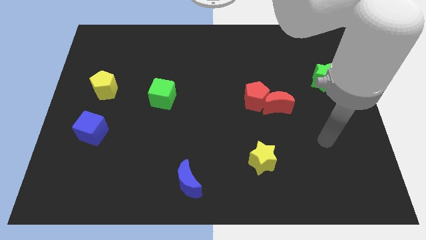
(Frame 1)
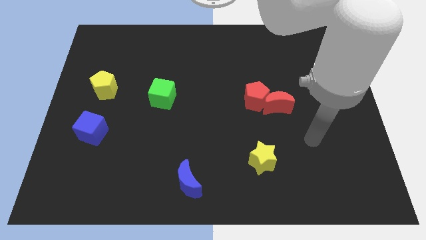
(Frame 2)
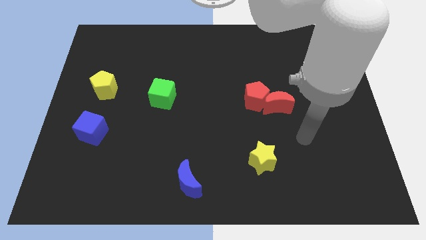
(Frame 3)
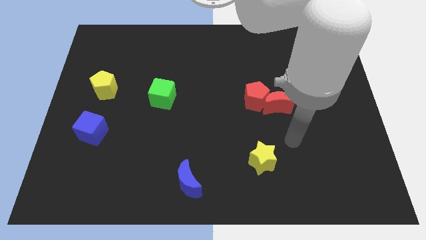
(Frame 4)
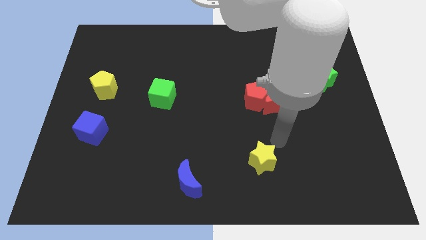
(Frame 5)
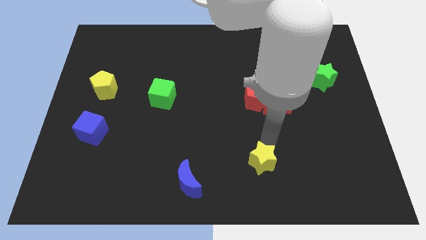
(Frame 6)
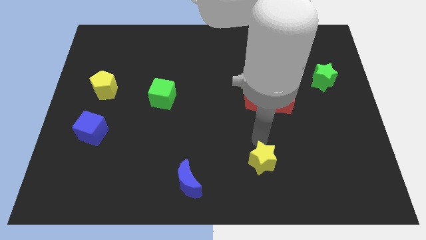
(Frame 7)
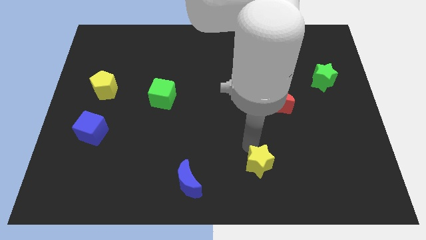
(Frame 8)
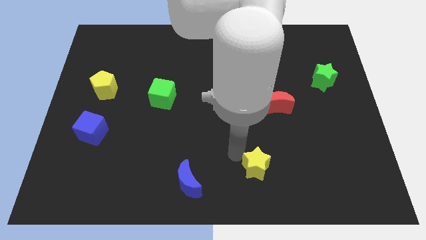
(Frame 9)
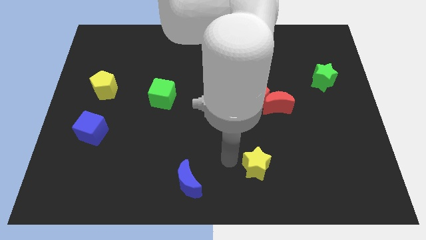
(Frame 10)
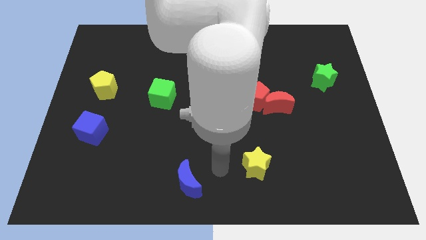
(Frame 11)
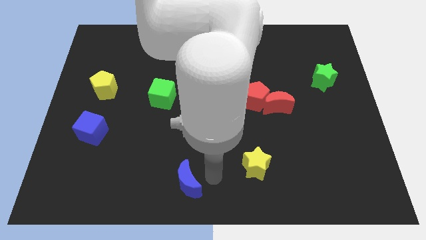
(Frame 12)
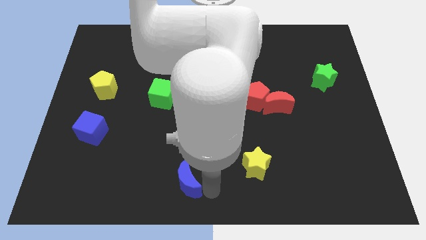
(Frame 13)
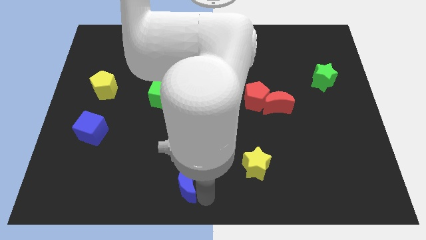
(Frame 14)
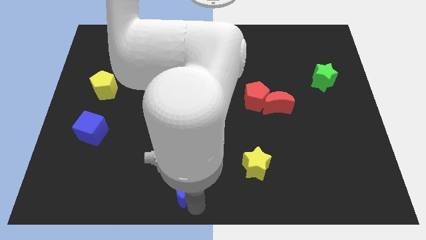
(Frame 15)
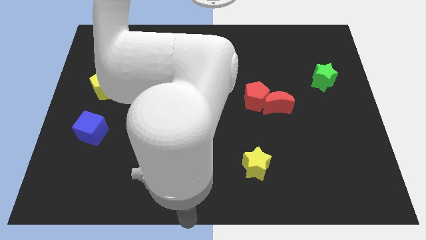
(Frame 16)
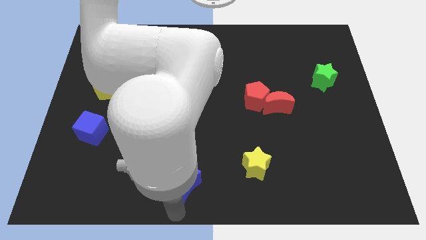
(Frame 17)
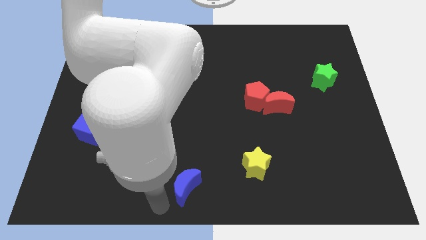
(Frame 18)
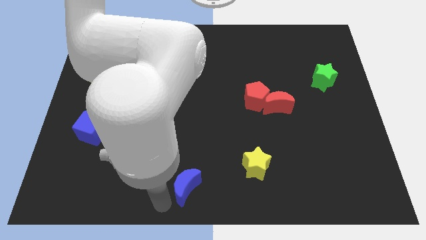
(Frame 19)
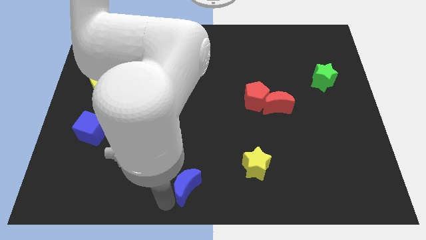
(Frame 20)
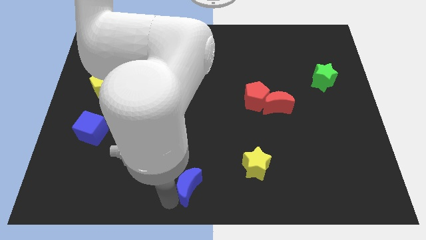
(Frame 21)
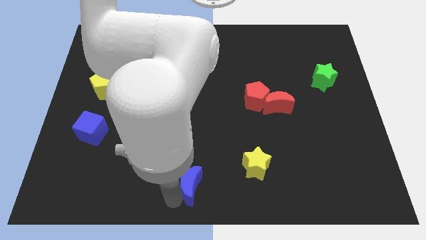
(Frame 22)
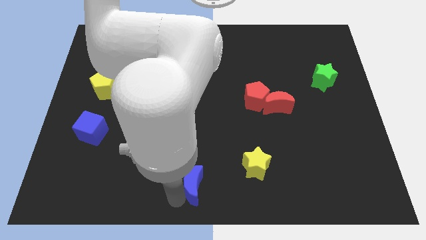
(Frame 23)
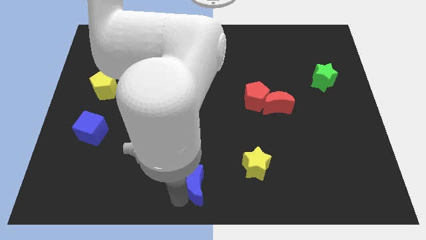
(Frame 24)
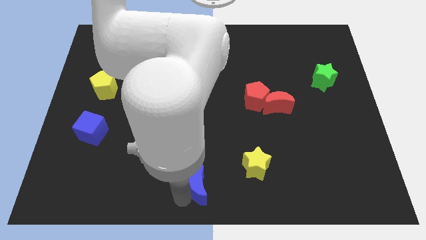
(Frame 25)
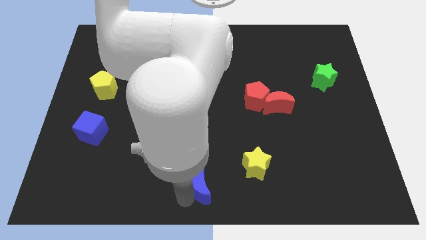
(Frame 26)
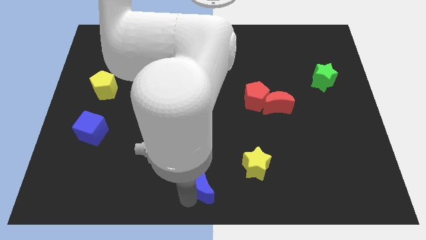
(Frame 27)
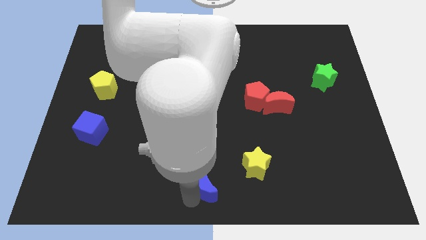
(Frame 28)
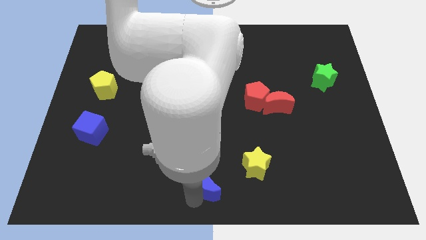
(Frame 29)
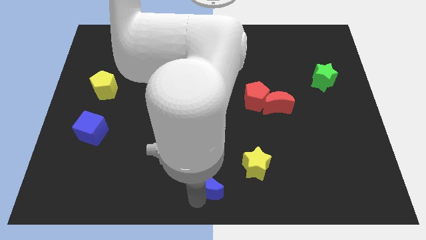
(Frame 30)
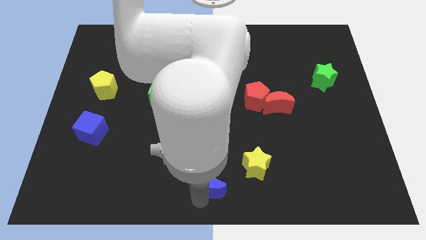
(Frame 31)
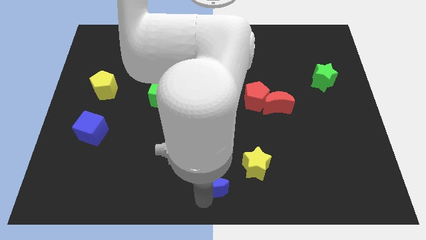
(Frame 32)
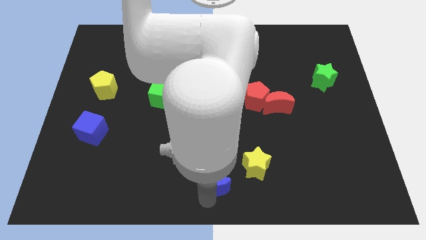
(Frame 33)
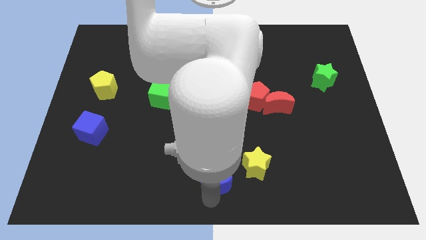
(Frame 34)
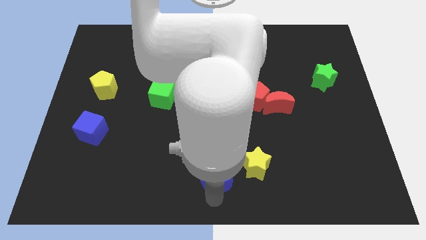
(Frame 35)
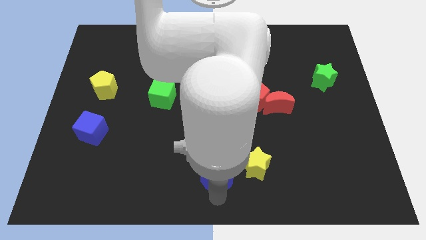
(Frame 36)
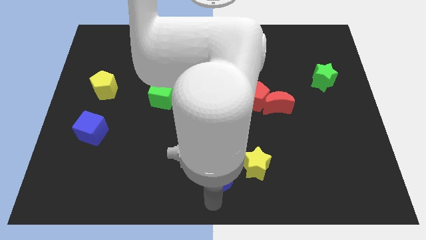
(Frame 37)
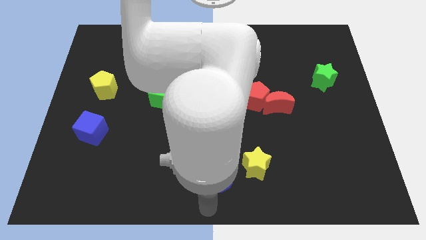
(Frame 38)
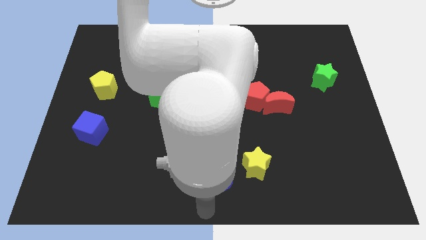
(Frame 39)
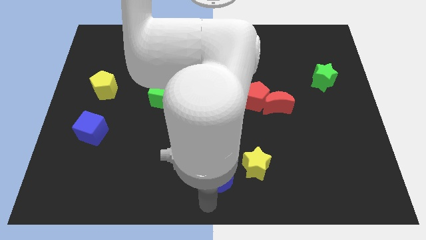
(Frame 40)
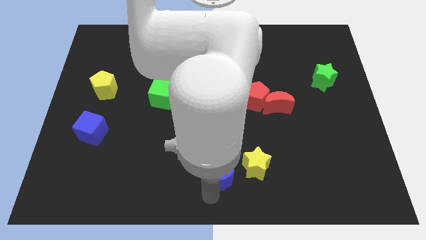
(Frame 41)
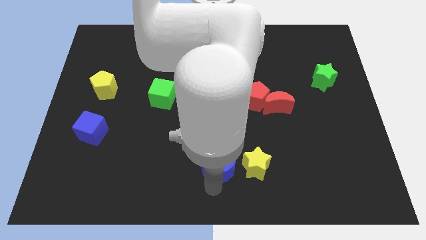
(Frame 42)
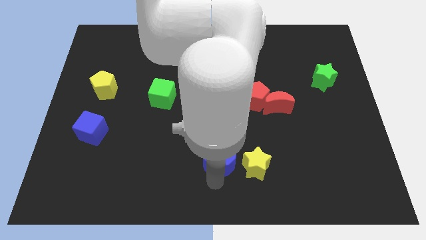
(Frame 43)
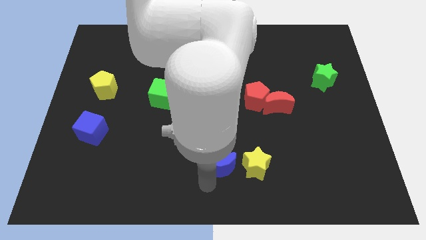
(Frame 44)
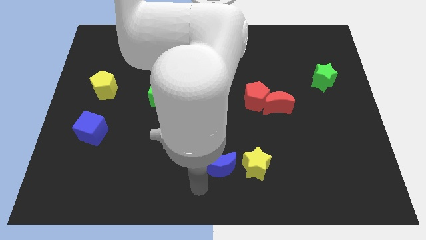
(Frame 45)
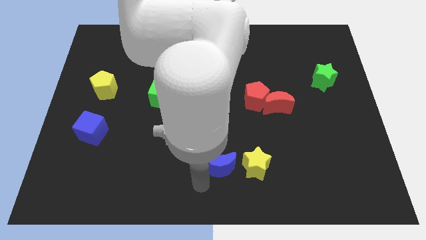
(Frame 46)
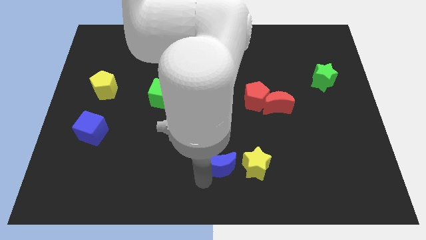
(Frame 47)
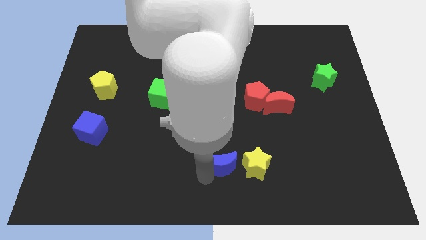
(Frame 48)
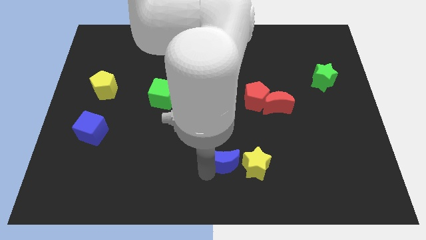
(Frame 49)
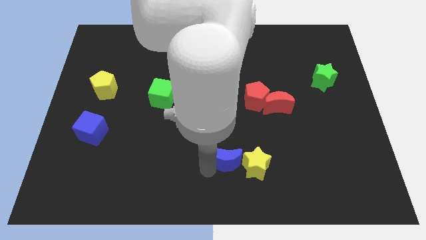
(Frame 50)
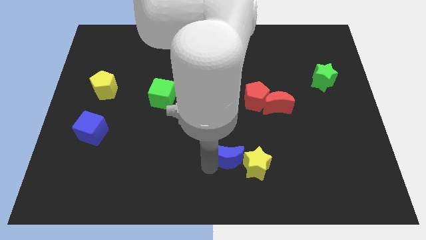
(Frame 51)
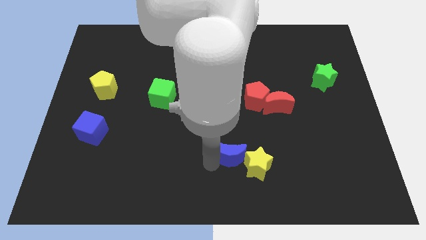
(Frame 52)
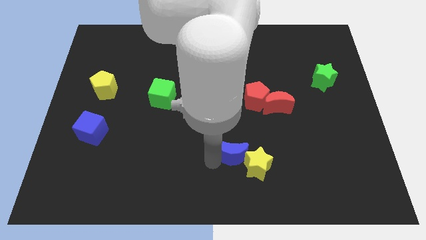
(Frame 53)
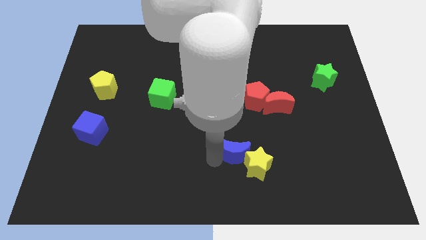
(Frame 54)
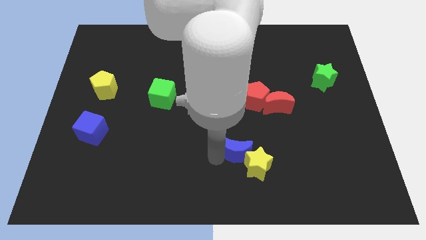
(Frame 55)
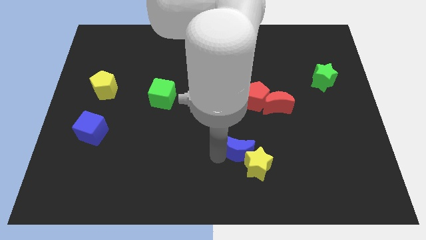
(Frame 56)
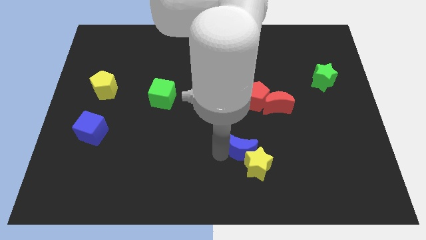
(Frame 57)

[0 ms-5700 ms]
push the blue moon to the bottom side of the red pentagon

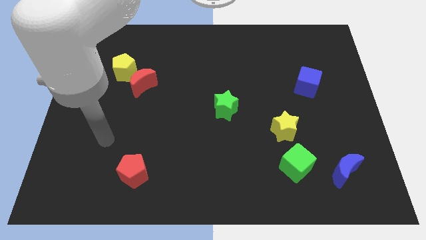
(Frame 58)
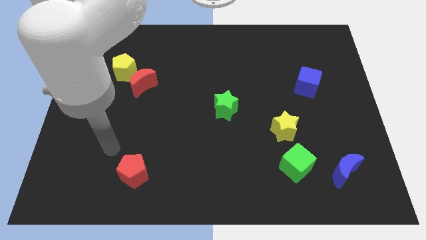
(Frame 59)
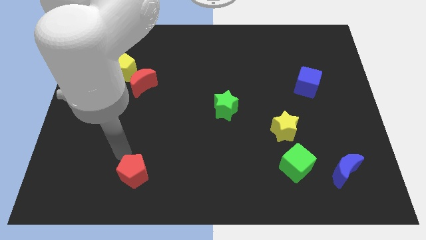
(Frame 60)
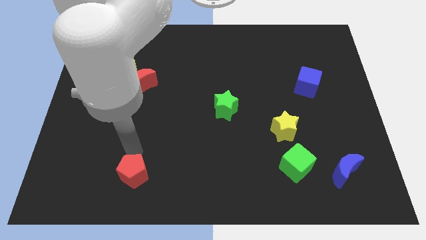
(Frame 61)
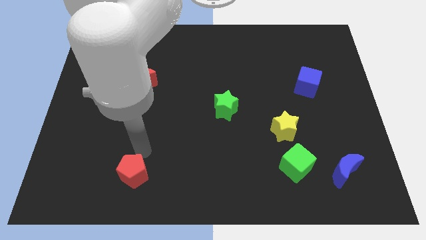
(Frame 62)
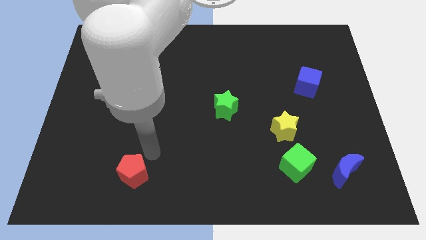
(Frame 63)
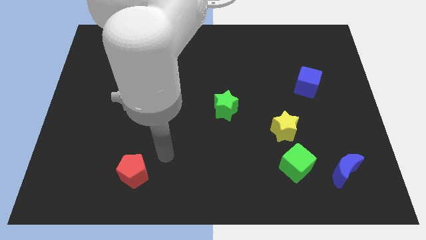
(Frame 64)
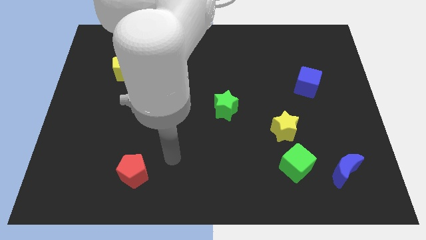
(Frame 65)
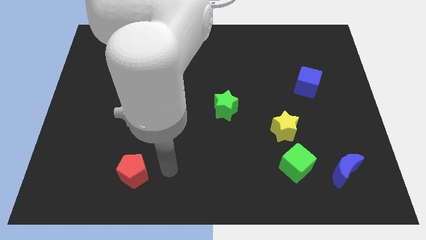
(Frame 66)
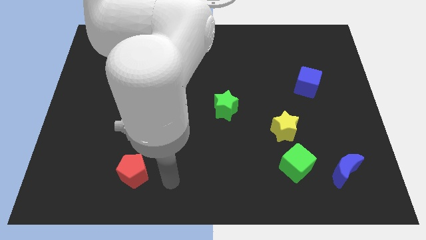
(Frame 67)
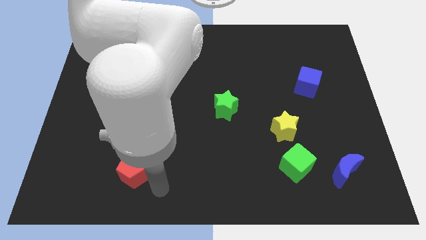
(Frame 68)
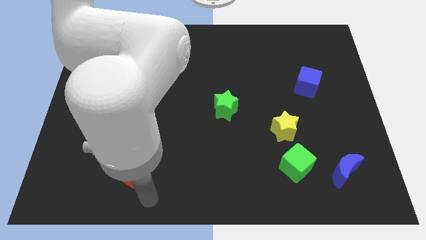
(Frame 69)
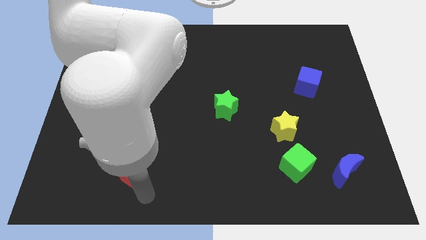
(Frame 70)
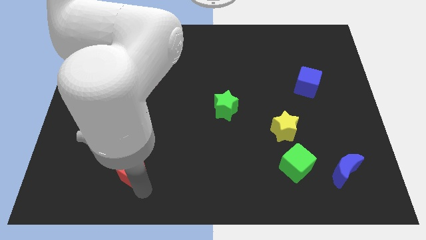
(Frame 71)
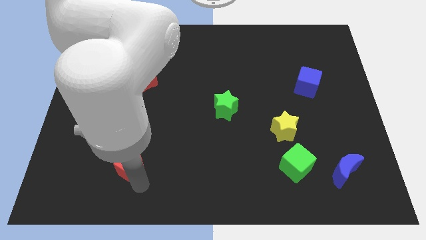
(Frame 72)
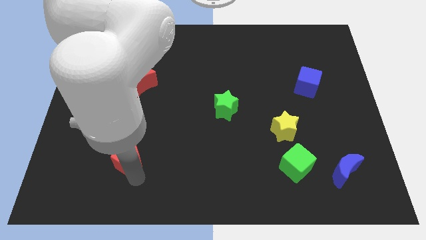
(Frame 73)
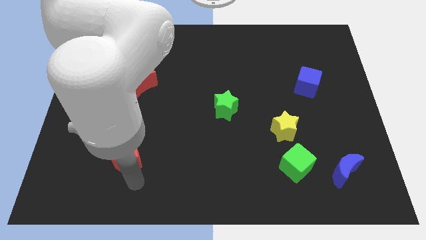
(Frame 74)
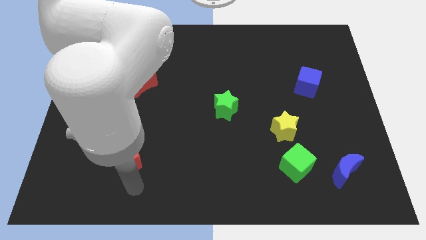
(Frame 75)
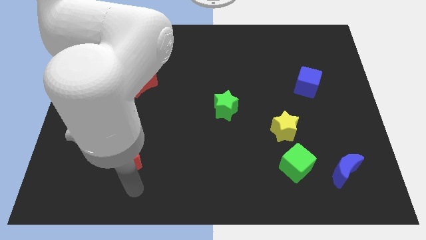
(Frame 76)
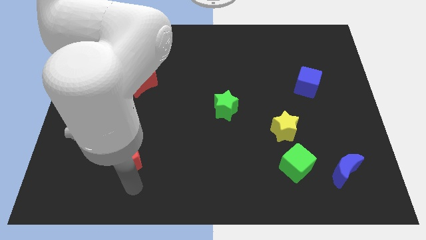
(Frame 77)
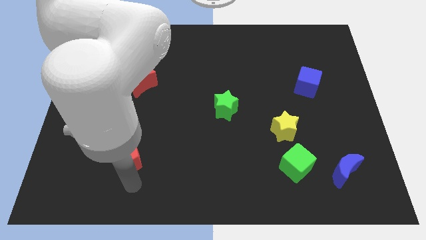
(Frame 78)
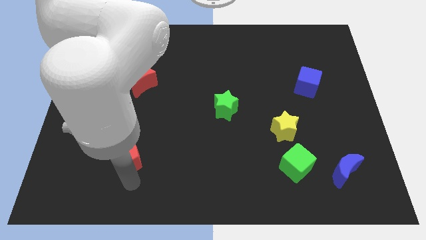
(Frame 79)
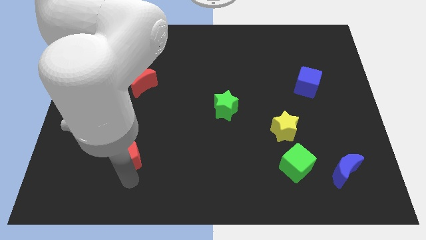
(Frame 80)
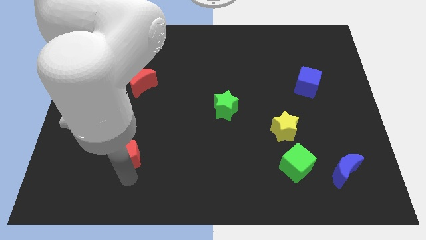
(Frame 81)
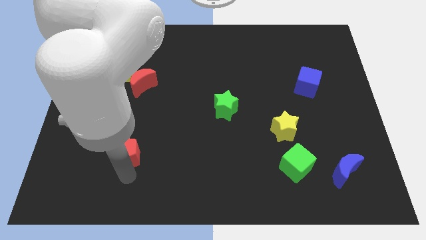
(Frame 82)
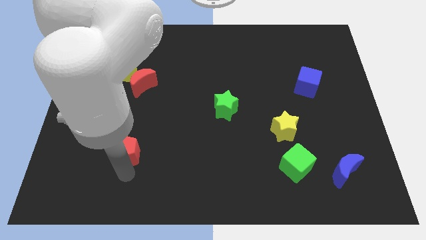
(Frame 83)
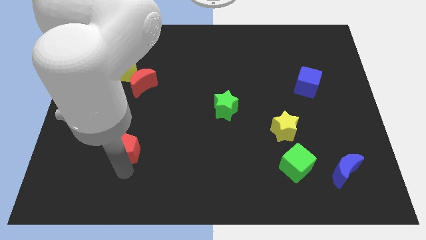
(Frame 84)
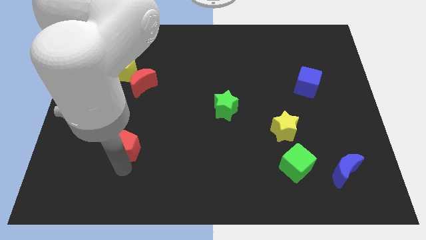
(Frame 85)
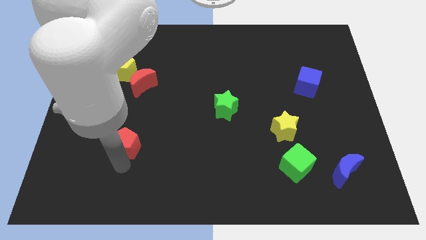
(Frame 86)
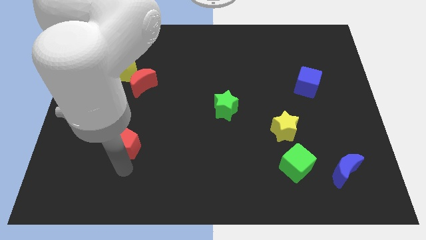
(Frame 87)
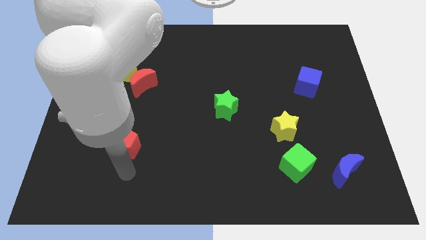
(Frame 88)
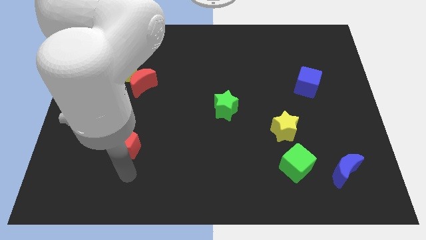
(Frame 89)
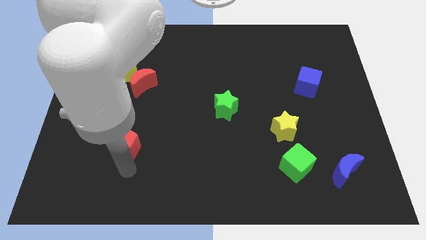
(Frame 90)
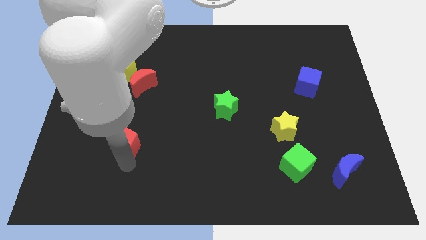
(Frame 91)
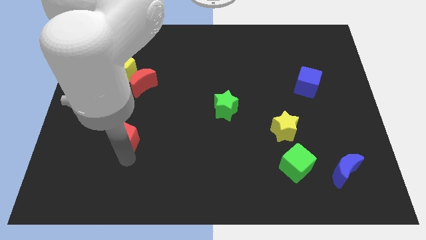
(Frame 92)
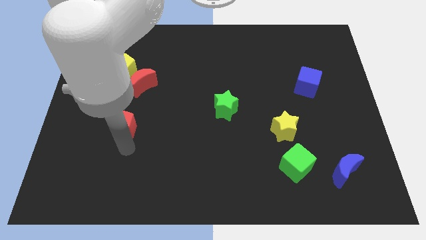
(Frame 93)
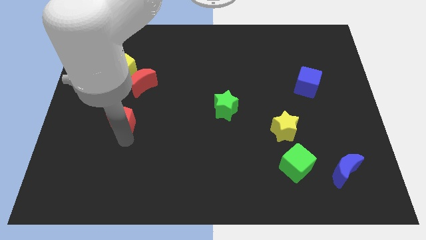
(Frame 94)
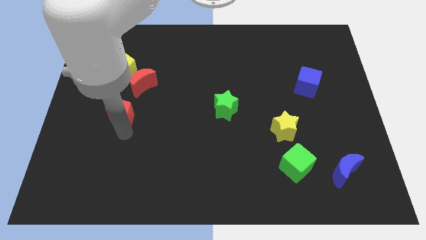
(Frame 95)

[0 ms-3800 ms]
move the red pentagon to the bottom of the yellow pentagon
